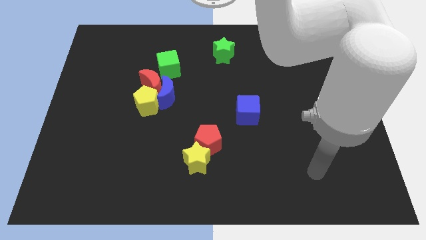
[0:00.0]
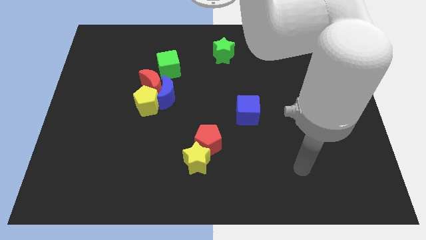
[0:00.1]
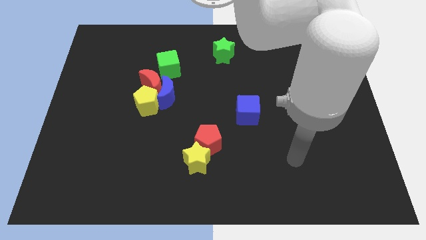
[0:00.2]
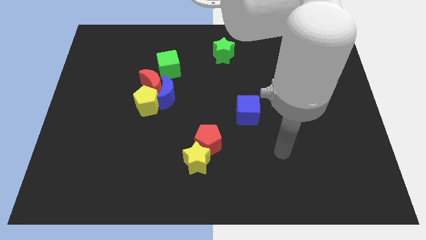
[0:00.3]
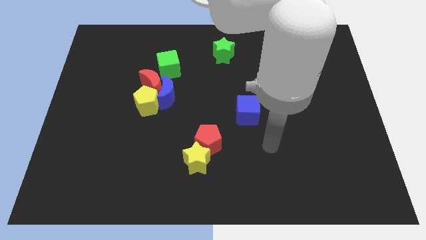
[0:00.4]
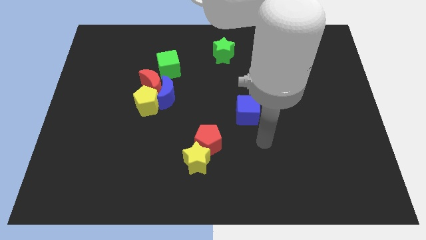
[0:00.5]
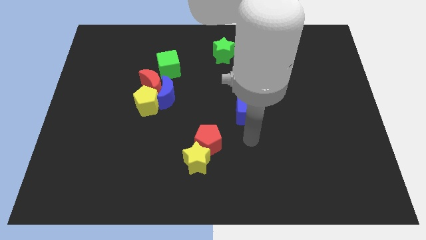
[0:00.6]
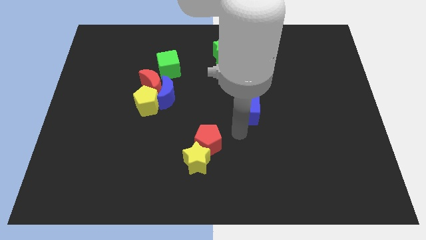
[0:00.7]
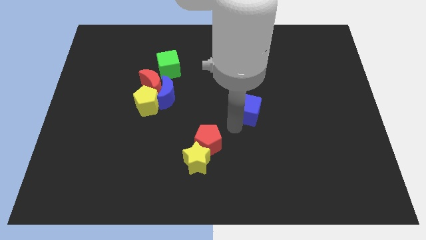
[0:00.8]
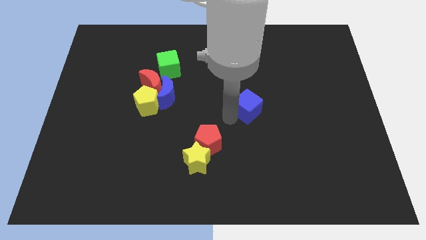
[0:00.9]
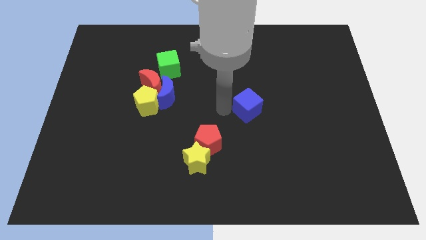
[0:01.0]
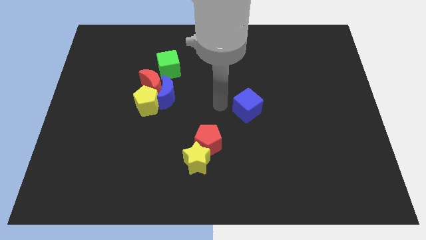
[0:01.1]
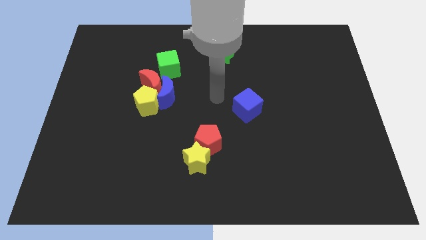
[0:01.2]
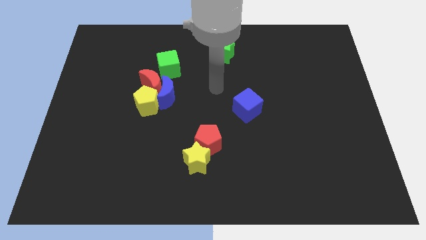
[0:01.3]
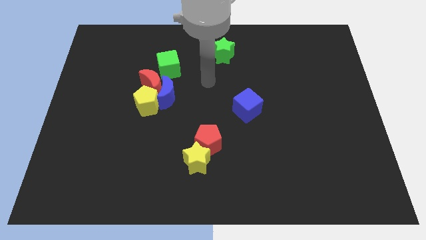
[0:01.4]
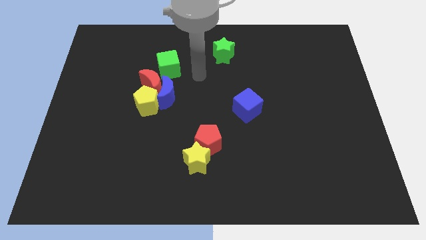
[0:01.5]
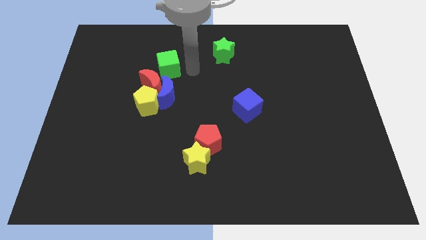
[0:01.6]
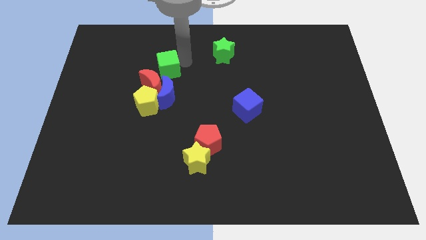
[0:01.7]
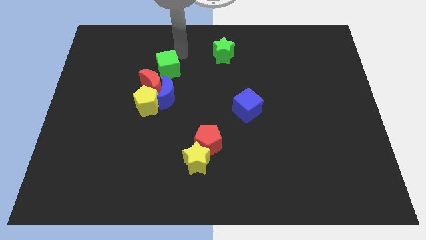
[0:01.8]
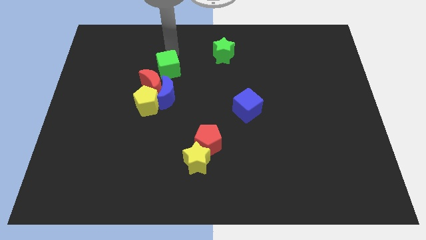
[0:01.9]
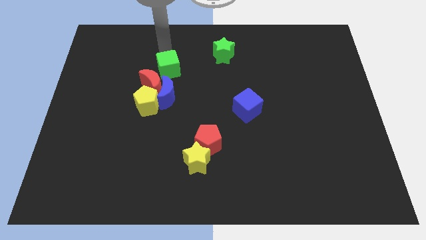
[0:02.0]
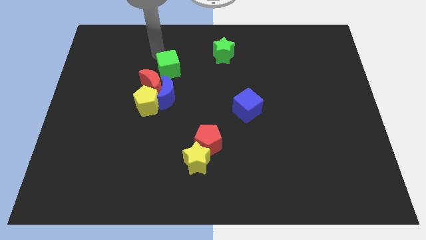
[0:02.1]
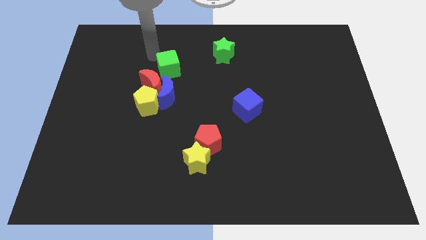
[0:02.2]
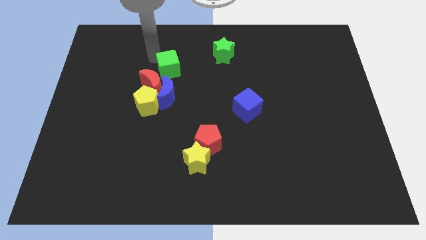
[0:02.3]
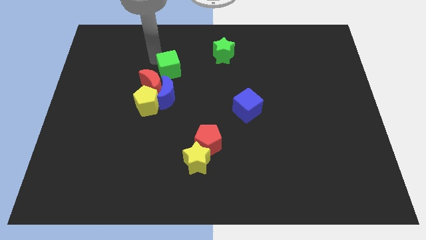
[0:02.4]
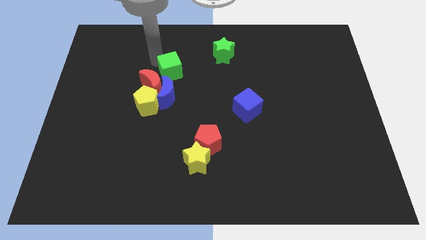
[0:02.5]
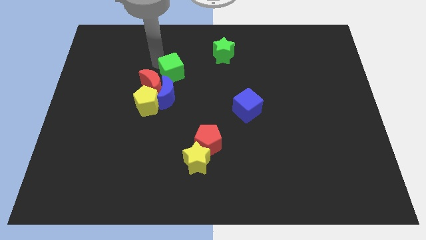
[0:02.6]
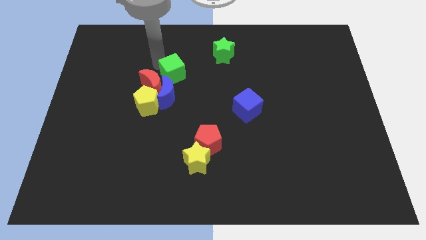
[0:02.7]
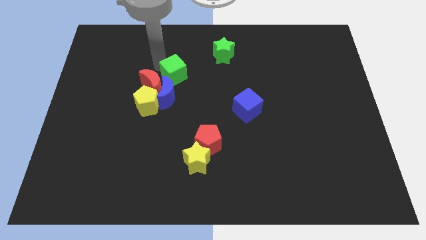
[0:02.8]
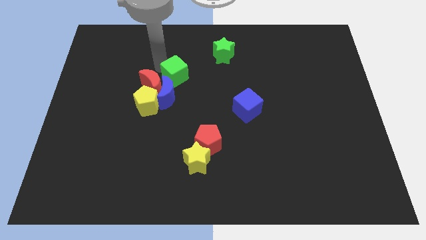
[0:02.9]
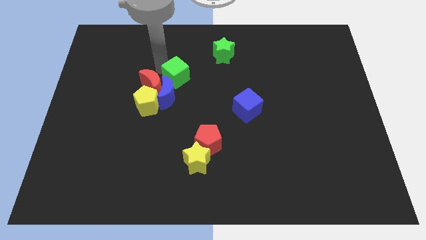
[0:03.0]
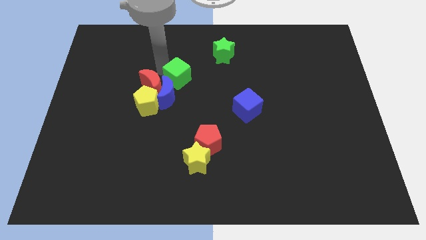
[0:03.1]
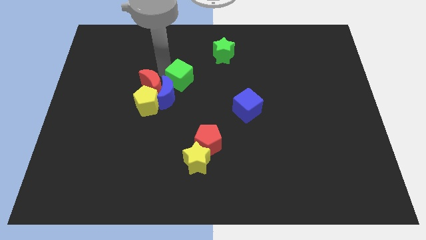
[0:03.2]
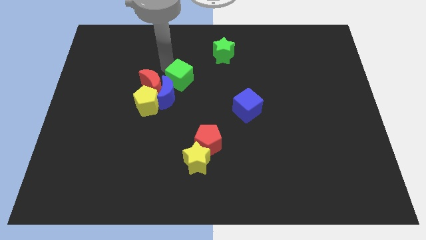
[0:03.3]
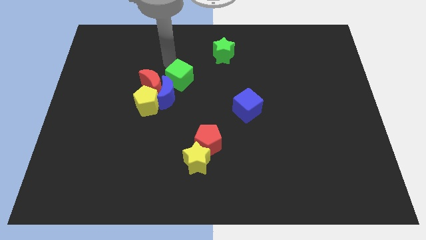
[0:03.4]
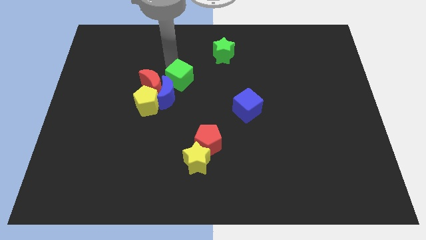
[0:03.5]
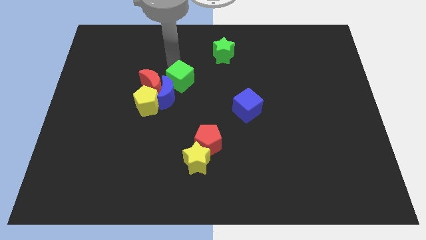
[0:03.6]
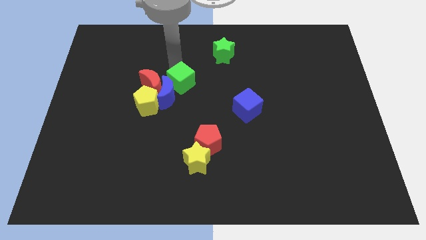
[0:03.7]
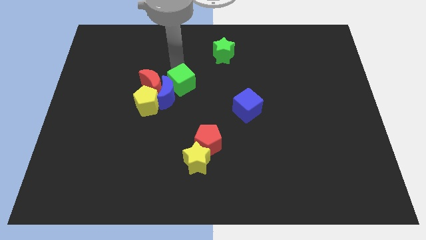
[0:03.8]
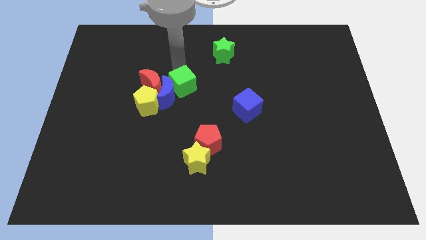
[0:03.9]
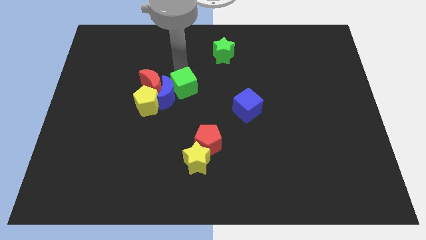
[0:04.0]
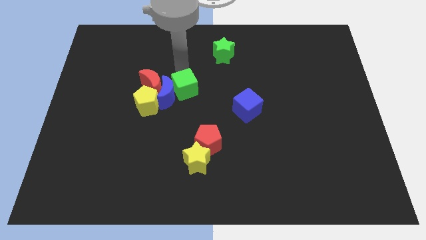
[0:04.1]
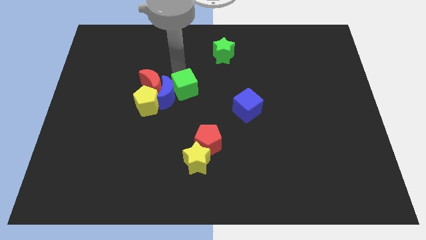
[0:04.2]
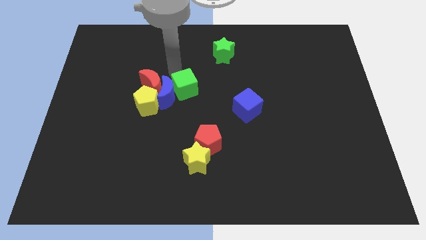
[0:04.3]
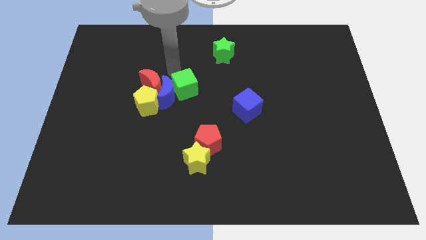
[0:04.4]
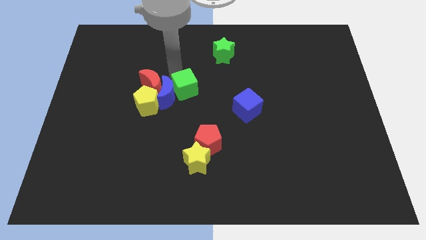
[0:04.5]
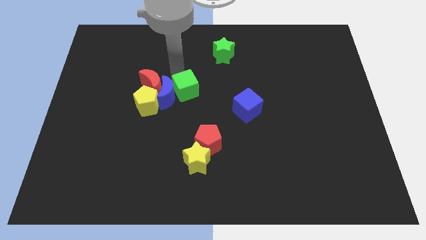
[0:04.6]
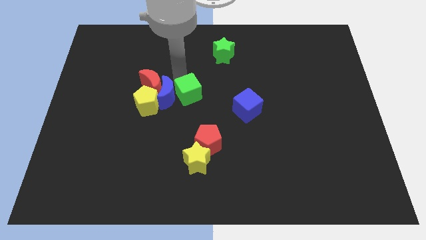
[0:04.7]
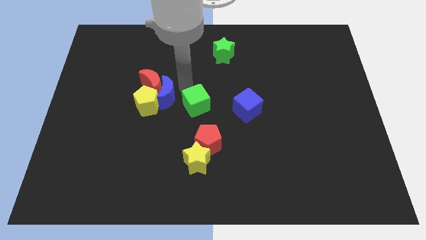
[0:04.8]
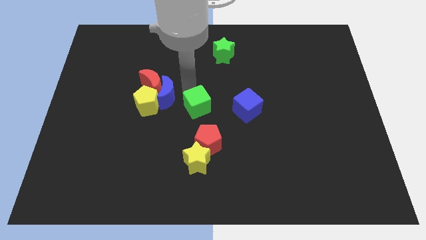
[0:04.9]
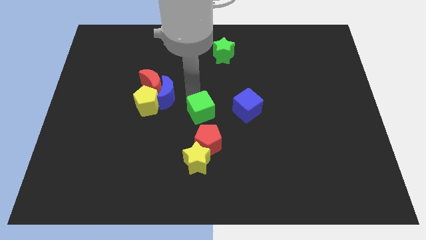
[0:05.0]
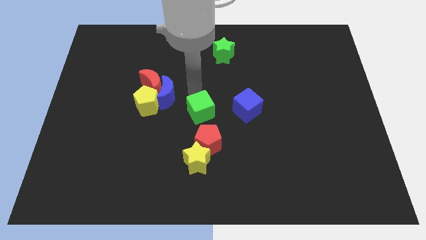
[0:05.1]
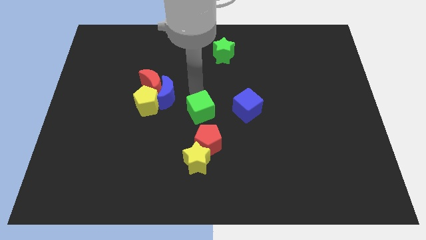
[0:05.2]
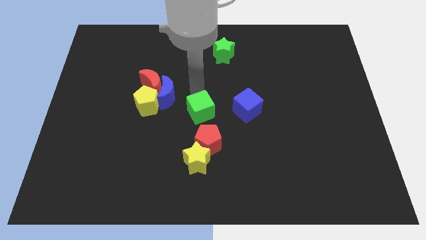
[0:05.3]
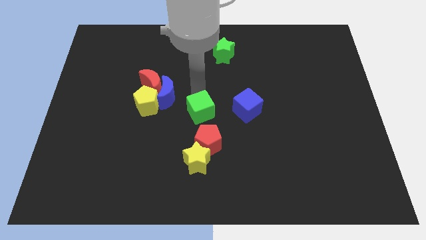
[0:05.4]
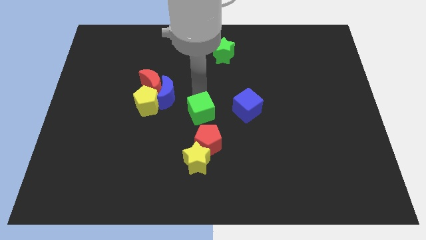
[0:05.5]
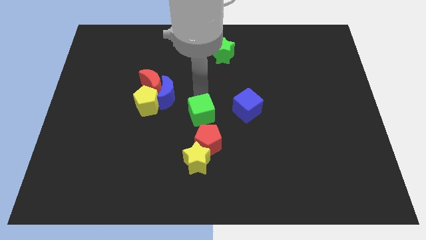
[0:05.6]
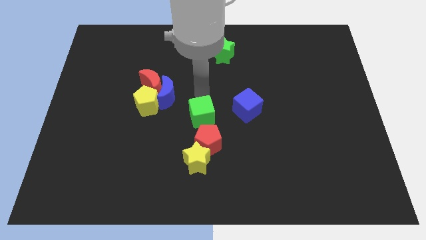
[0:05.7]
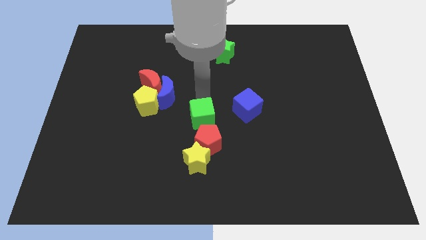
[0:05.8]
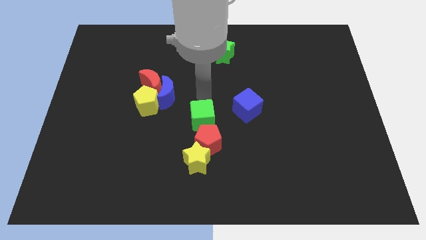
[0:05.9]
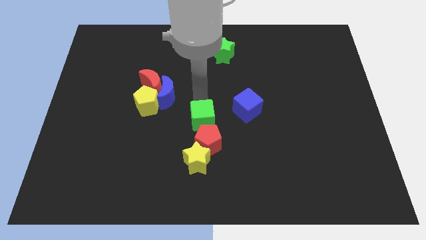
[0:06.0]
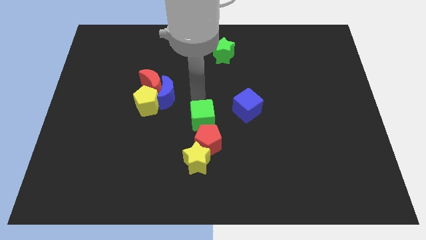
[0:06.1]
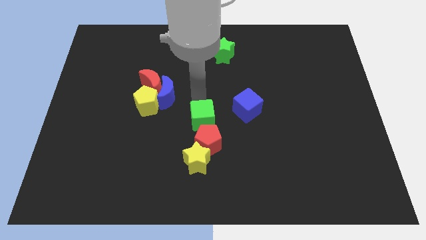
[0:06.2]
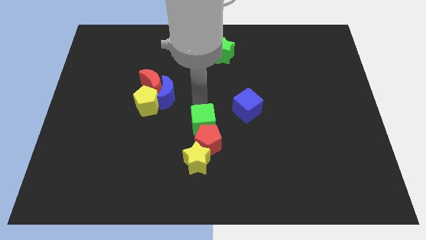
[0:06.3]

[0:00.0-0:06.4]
push the green cube close to the red pentagon

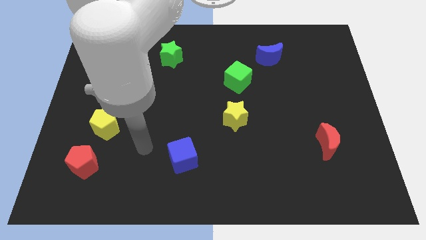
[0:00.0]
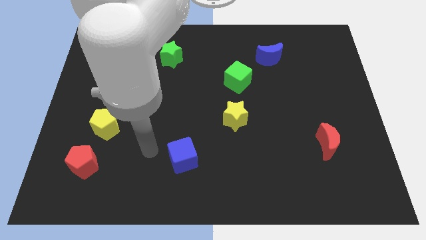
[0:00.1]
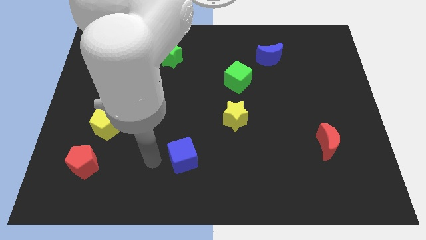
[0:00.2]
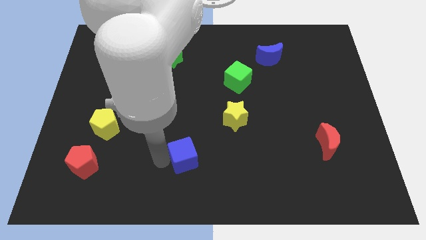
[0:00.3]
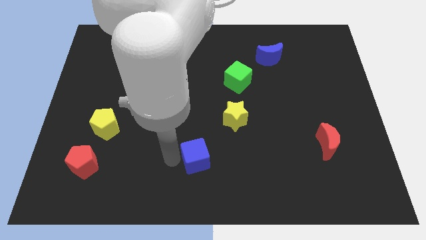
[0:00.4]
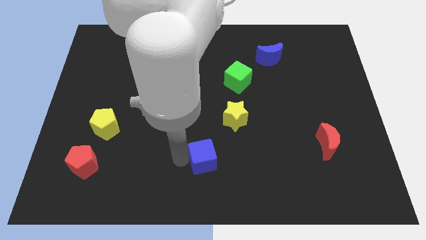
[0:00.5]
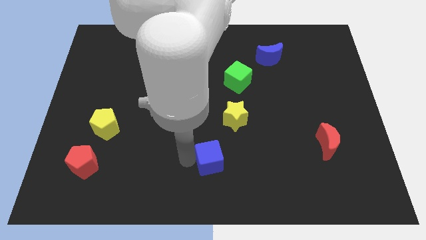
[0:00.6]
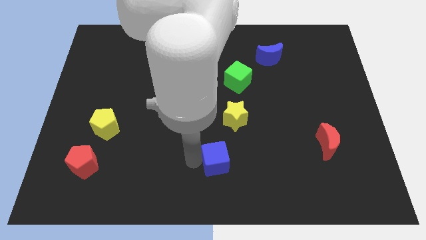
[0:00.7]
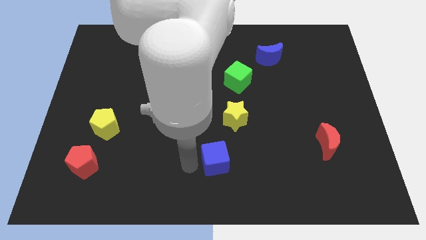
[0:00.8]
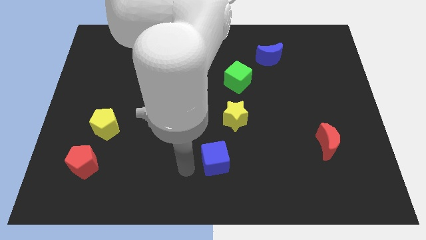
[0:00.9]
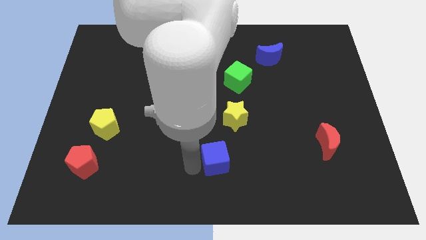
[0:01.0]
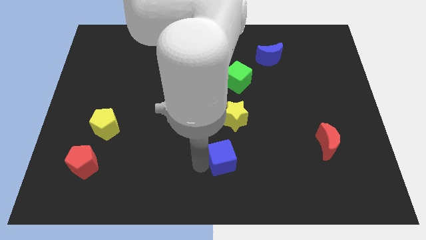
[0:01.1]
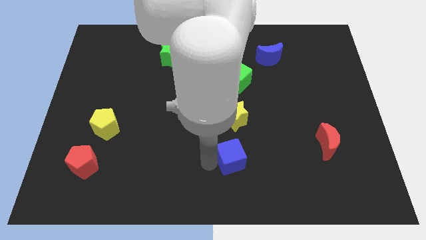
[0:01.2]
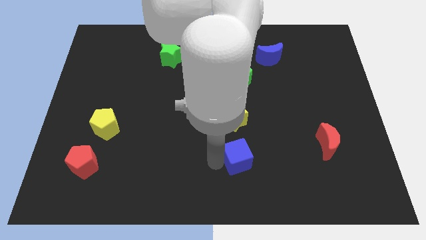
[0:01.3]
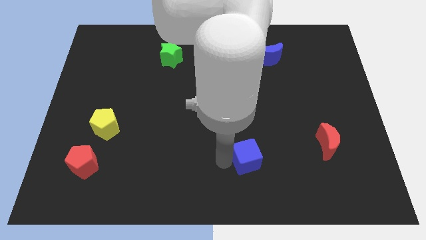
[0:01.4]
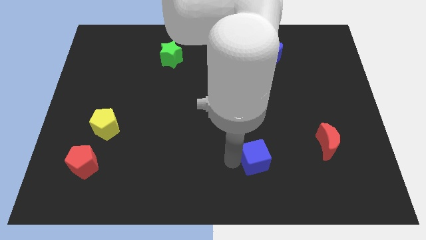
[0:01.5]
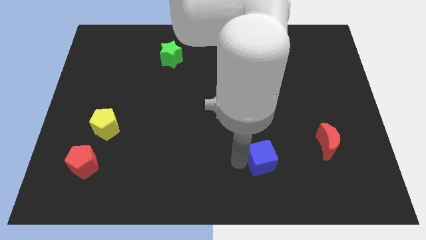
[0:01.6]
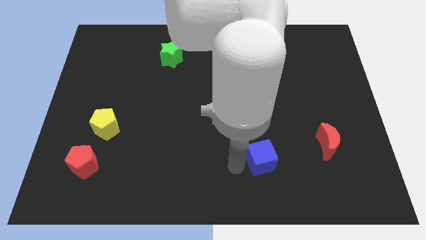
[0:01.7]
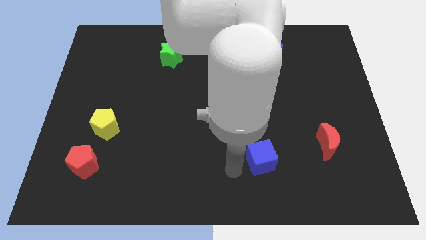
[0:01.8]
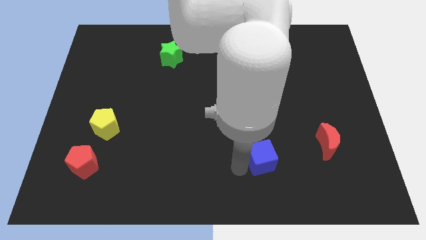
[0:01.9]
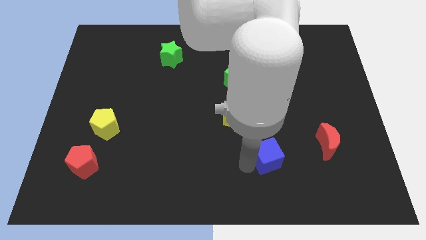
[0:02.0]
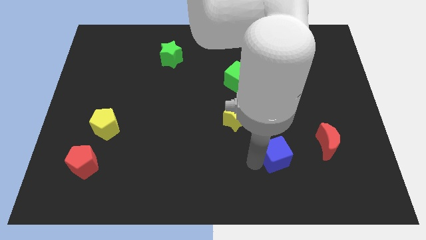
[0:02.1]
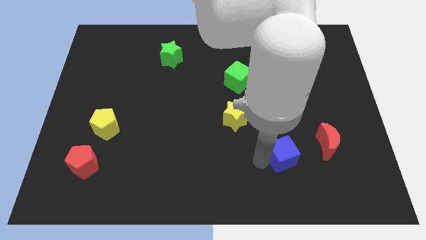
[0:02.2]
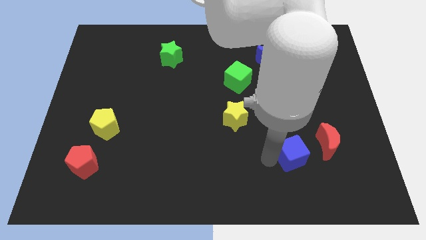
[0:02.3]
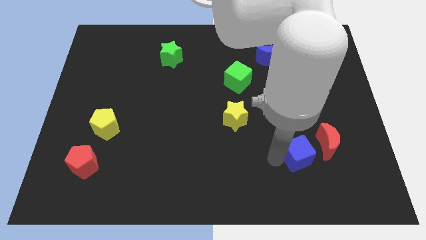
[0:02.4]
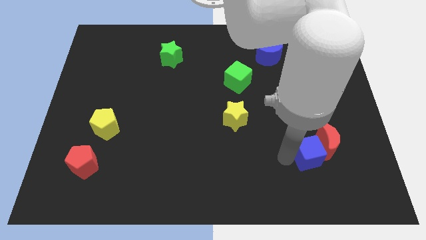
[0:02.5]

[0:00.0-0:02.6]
put the blue cube to the red moon
